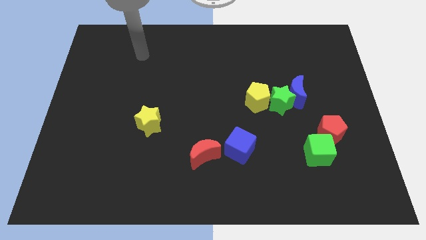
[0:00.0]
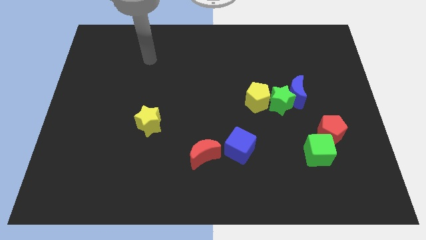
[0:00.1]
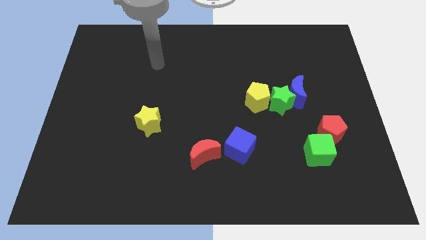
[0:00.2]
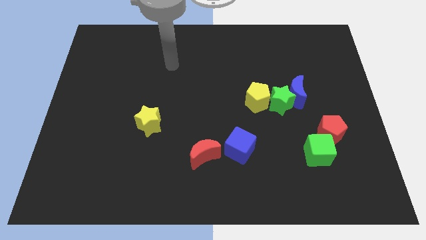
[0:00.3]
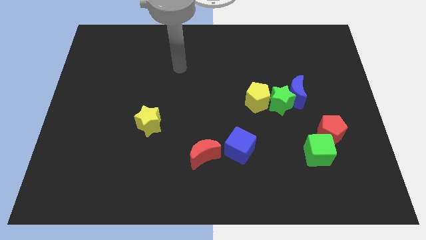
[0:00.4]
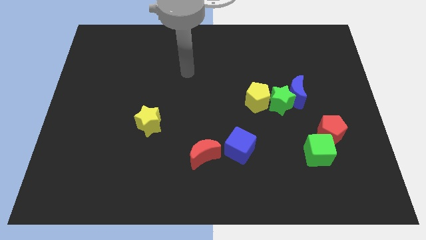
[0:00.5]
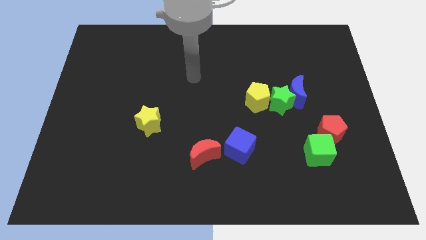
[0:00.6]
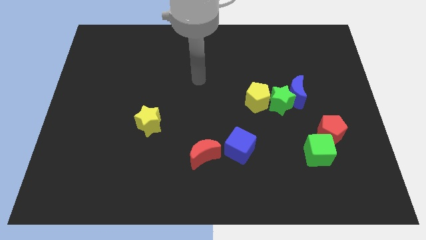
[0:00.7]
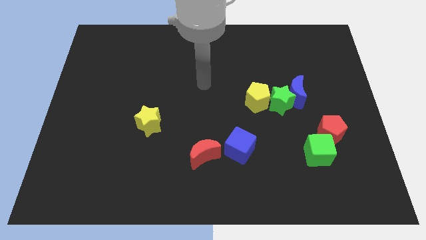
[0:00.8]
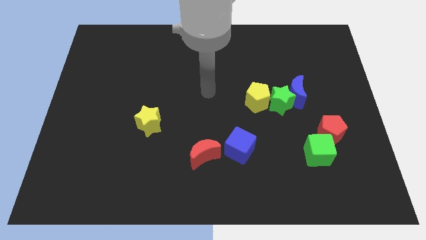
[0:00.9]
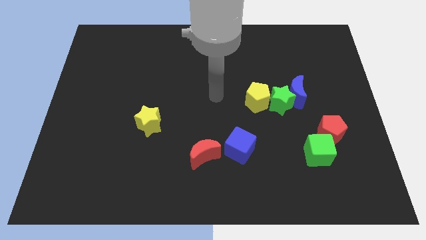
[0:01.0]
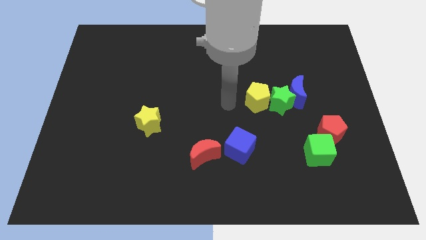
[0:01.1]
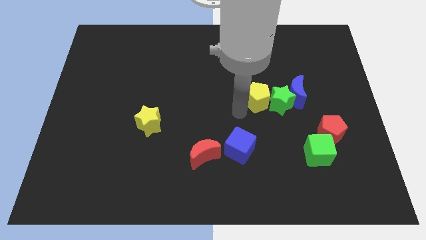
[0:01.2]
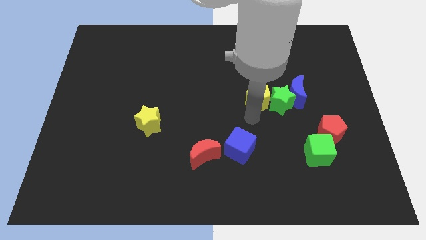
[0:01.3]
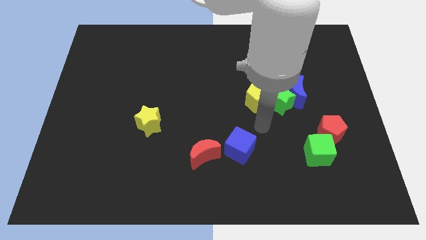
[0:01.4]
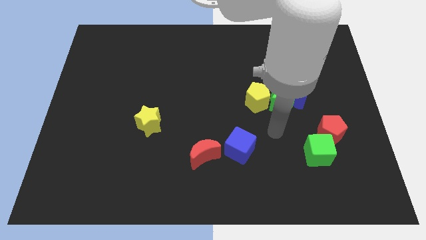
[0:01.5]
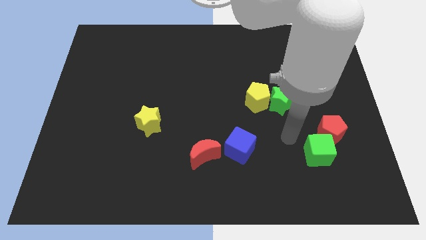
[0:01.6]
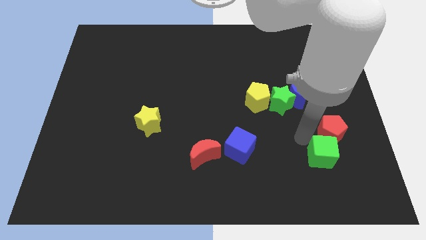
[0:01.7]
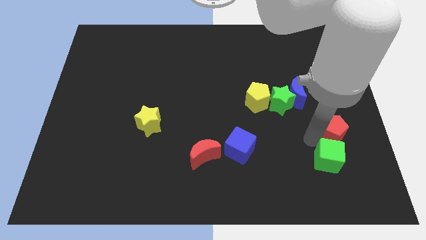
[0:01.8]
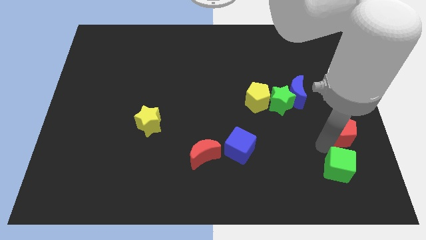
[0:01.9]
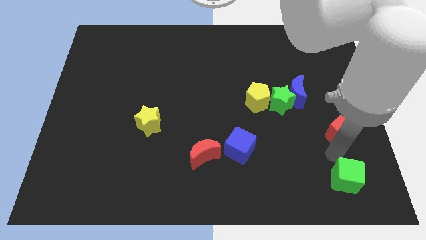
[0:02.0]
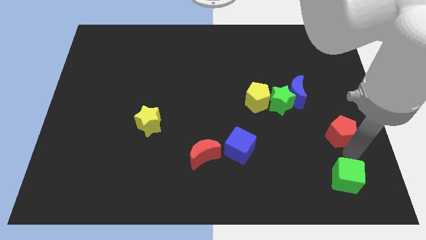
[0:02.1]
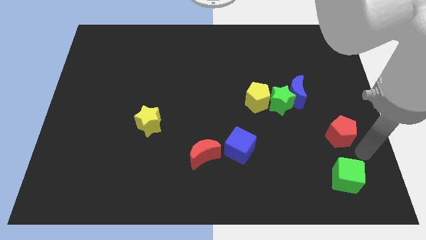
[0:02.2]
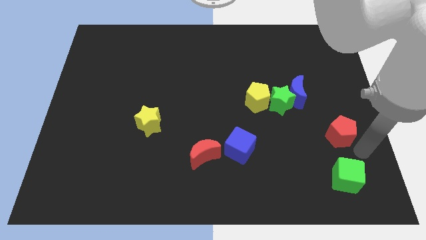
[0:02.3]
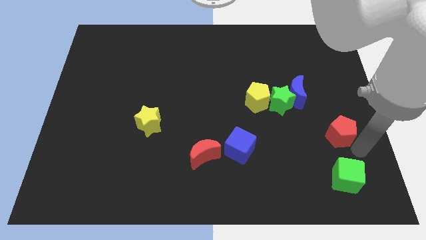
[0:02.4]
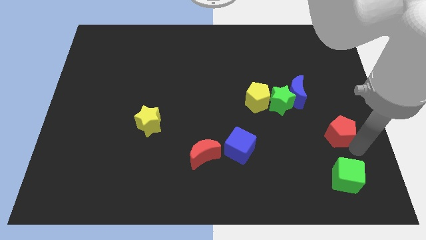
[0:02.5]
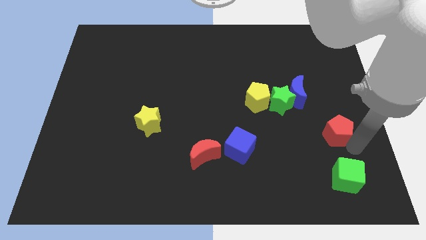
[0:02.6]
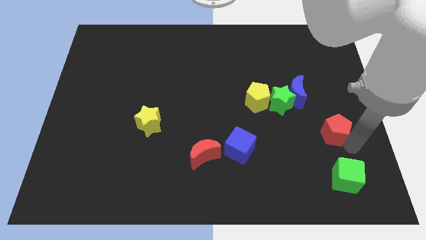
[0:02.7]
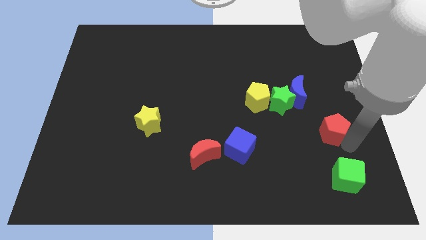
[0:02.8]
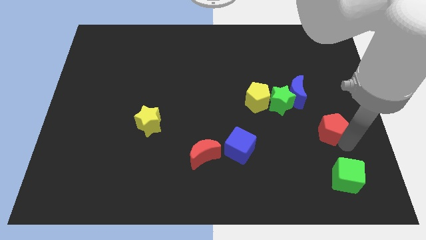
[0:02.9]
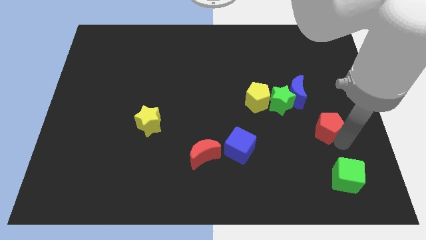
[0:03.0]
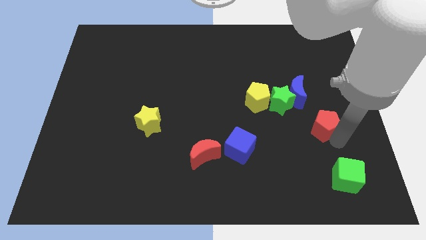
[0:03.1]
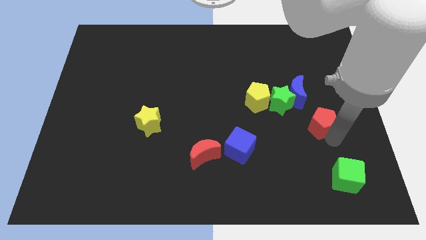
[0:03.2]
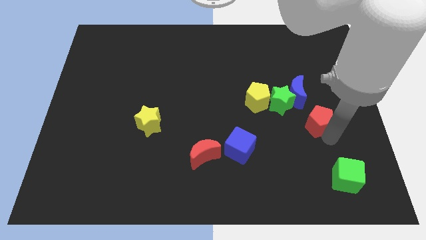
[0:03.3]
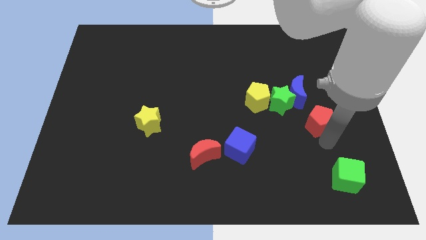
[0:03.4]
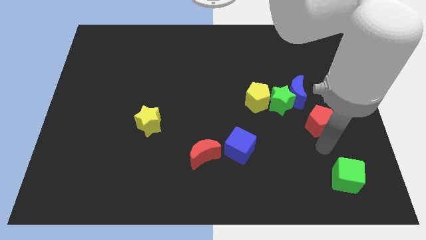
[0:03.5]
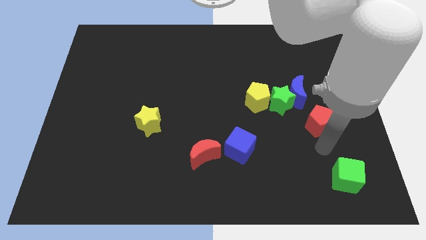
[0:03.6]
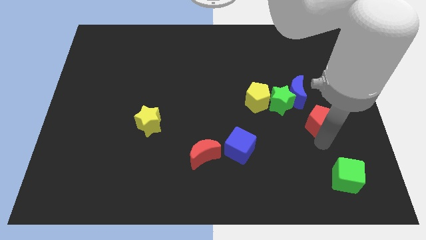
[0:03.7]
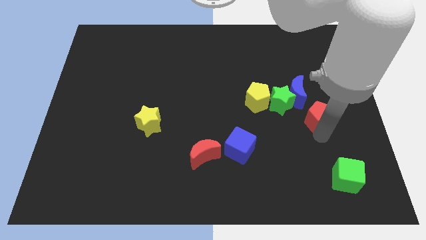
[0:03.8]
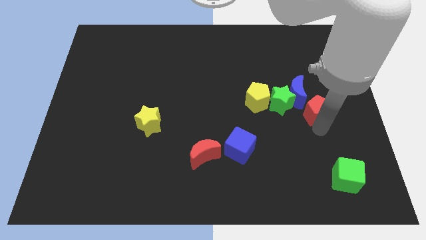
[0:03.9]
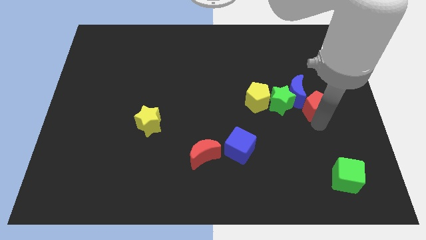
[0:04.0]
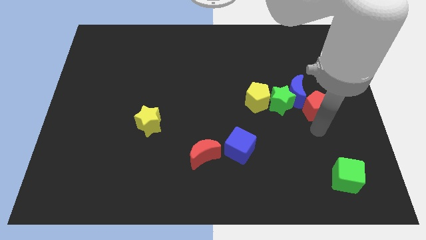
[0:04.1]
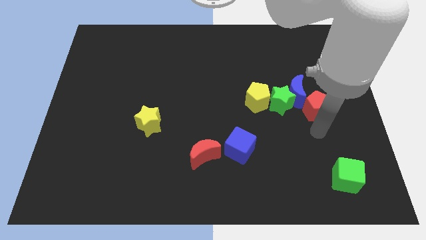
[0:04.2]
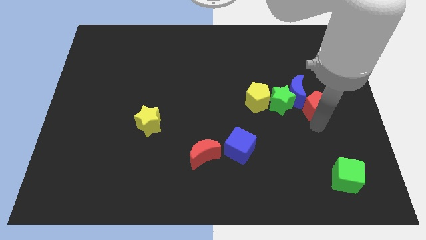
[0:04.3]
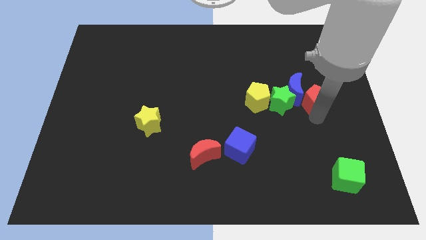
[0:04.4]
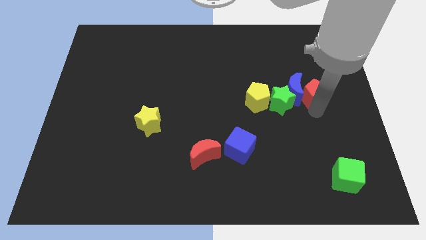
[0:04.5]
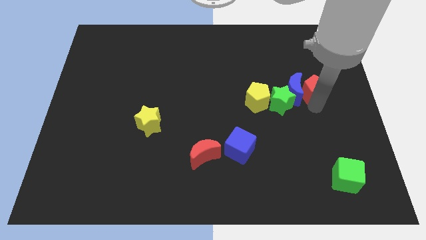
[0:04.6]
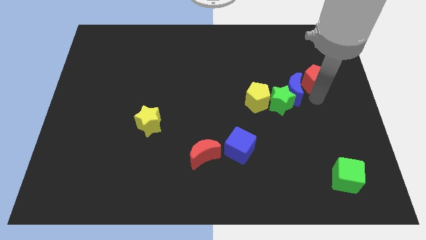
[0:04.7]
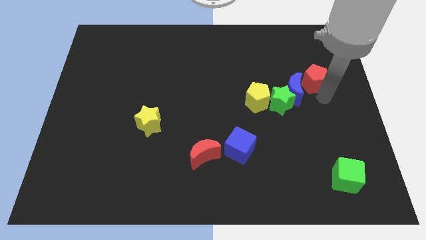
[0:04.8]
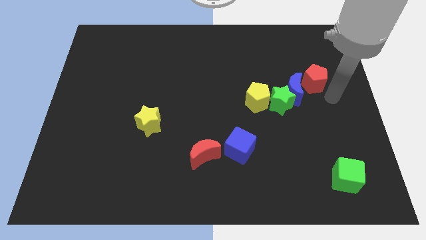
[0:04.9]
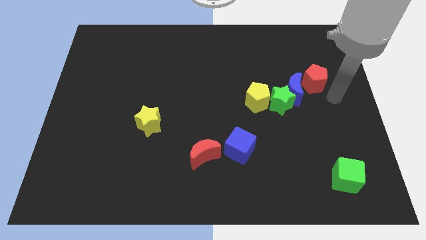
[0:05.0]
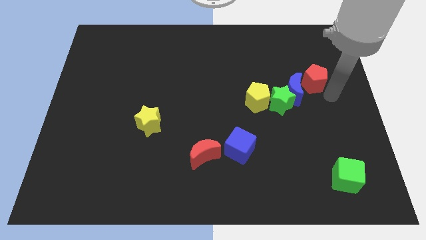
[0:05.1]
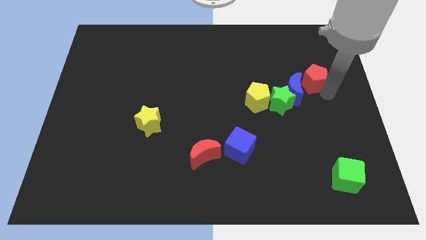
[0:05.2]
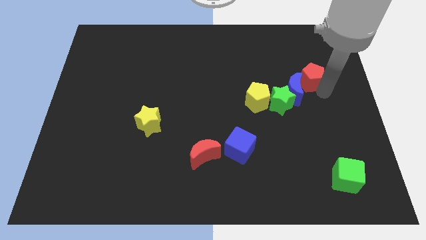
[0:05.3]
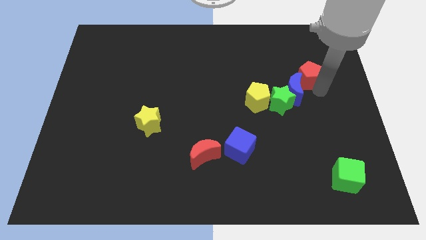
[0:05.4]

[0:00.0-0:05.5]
move the red pentagon to the top side of the blue moon

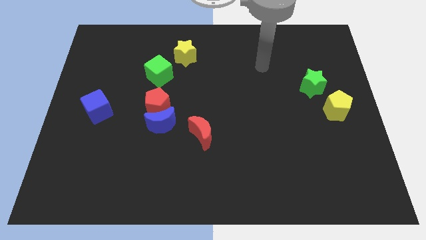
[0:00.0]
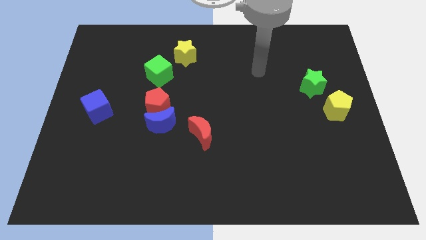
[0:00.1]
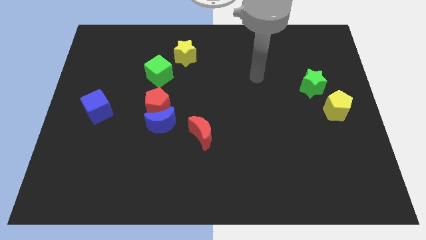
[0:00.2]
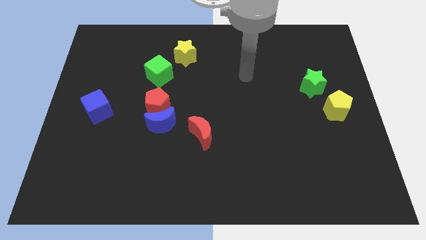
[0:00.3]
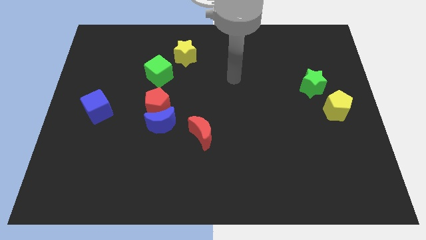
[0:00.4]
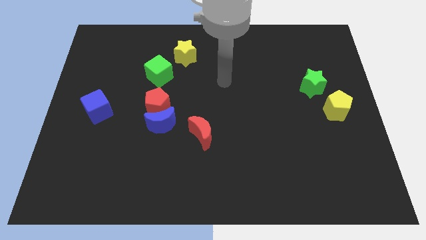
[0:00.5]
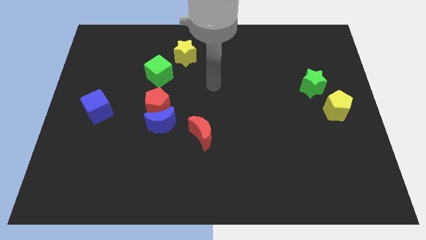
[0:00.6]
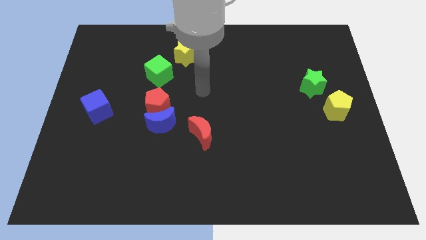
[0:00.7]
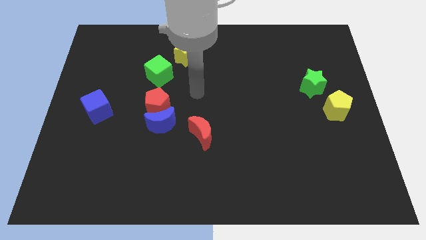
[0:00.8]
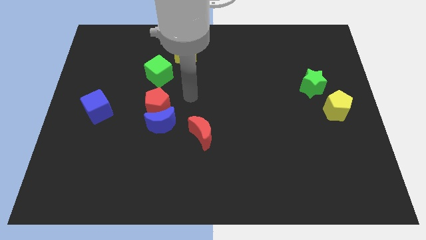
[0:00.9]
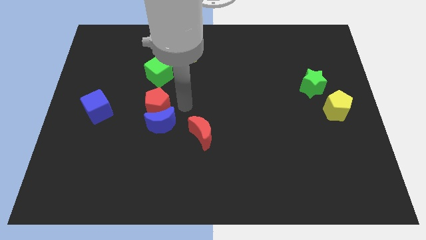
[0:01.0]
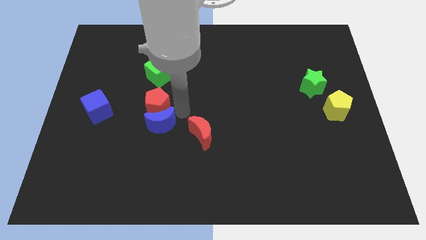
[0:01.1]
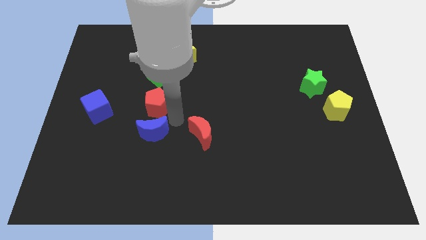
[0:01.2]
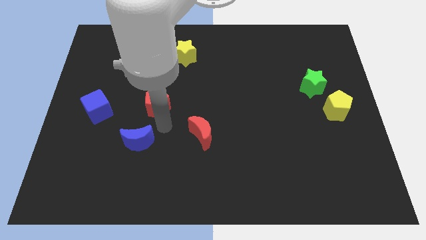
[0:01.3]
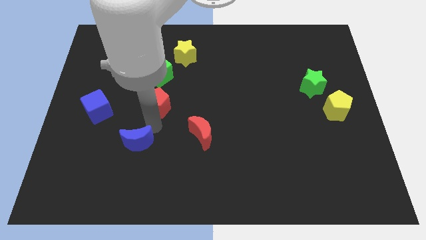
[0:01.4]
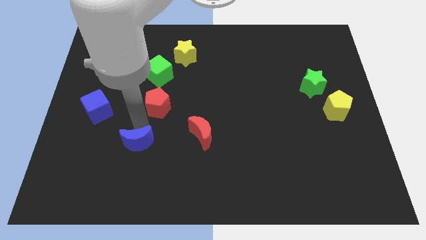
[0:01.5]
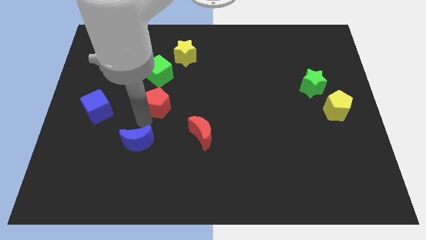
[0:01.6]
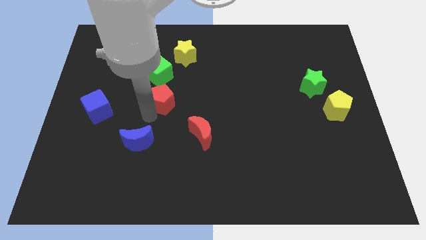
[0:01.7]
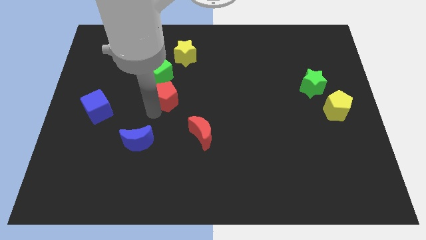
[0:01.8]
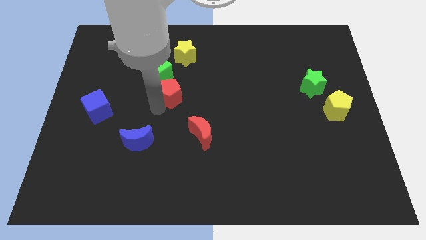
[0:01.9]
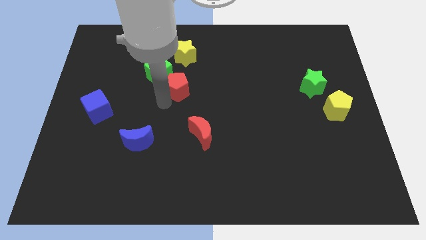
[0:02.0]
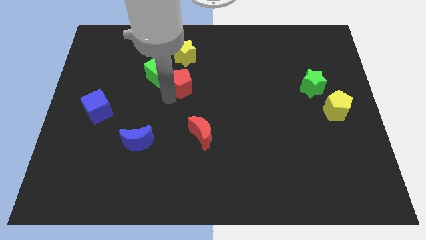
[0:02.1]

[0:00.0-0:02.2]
push the red pentagon just right of the green cube

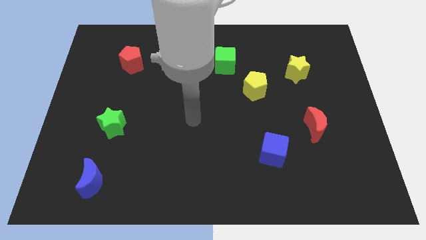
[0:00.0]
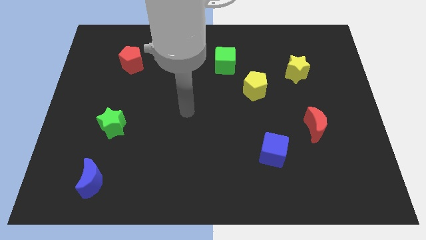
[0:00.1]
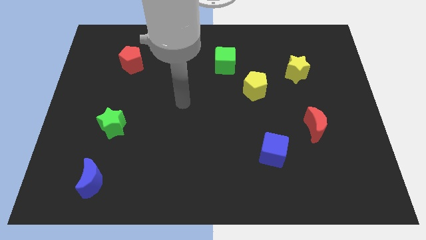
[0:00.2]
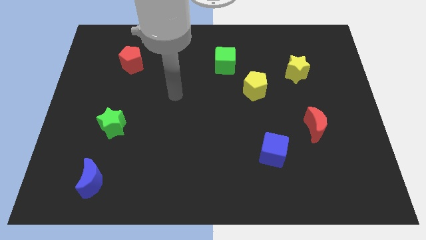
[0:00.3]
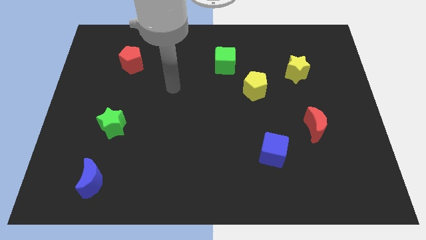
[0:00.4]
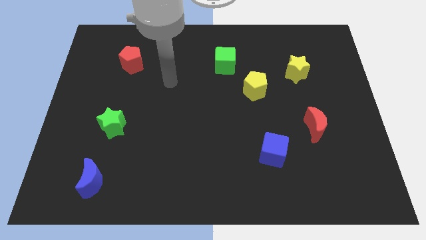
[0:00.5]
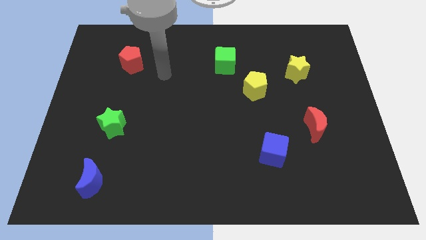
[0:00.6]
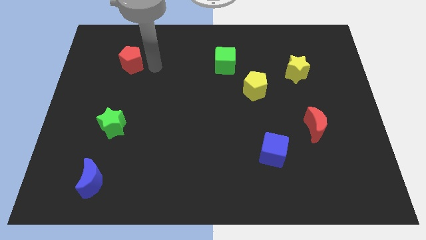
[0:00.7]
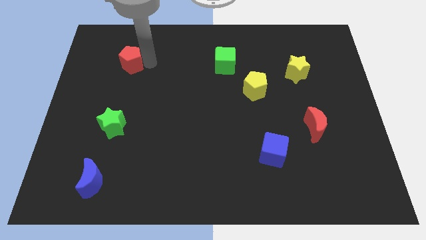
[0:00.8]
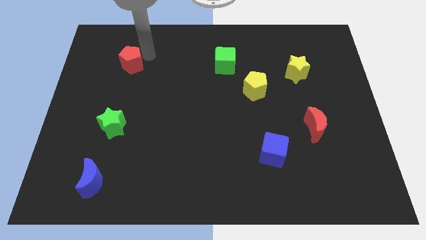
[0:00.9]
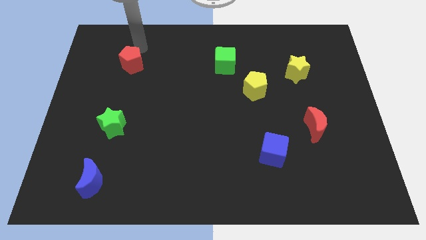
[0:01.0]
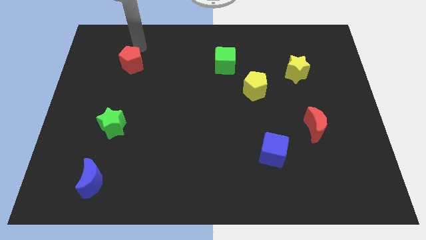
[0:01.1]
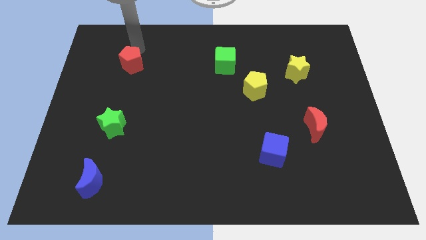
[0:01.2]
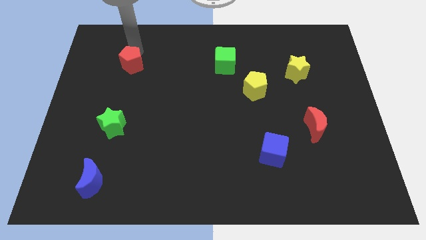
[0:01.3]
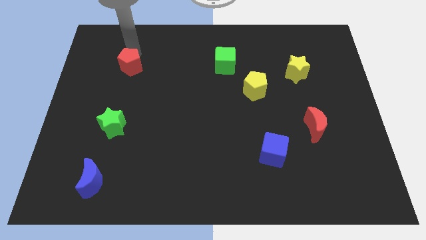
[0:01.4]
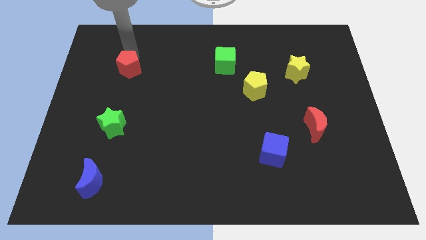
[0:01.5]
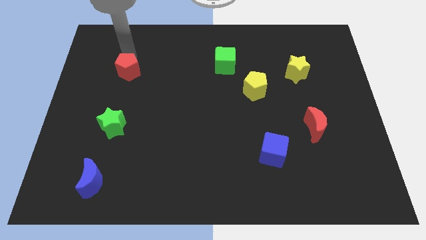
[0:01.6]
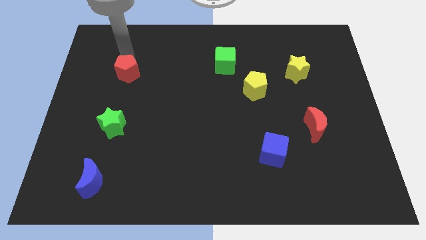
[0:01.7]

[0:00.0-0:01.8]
move the red pentagon to the top side of the green star
